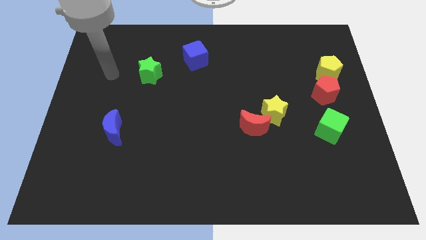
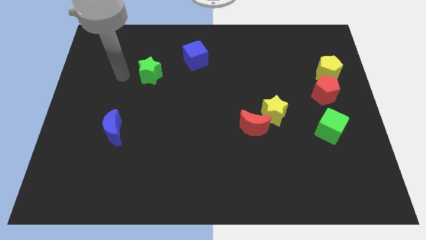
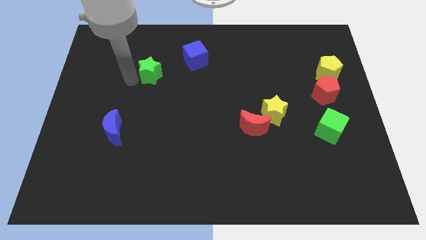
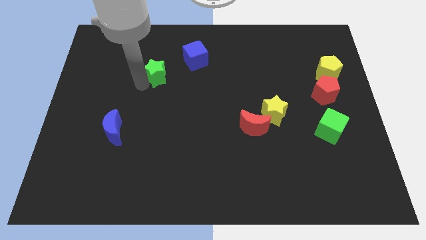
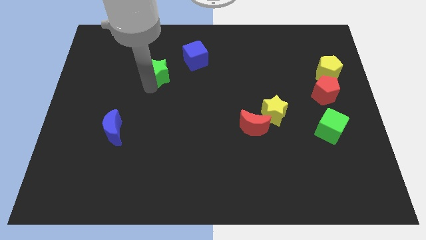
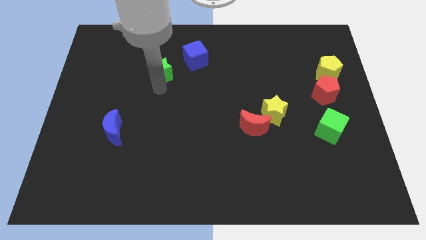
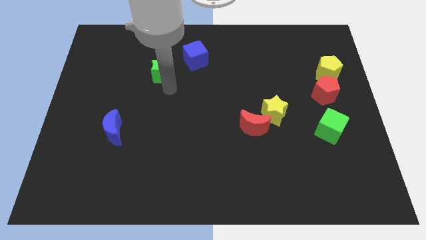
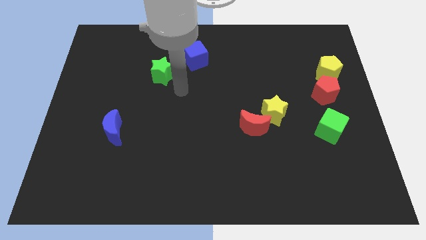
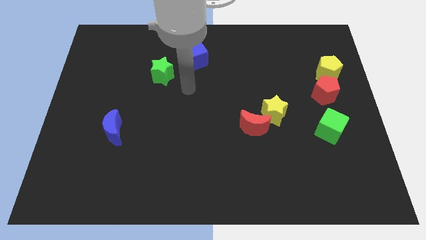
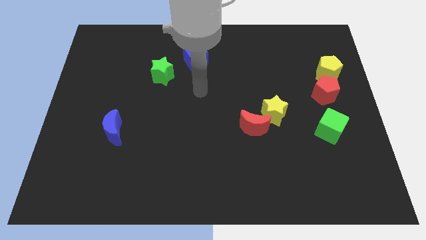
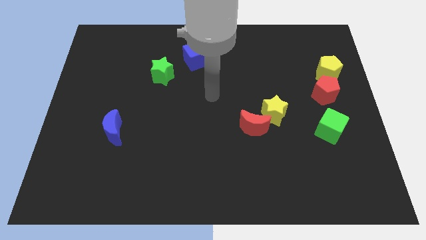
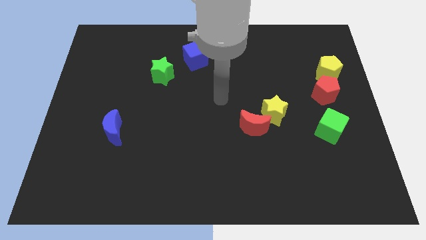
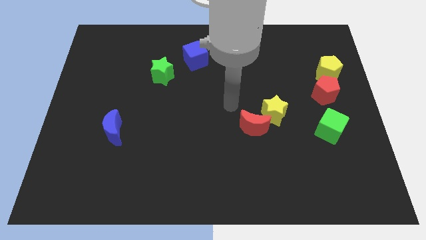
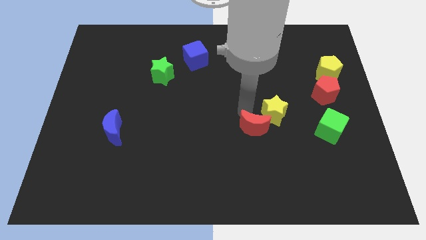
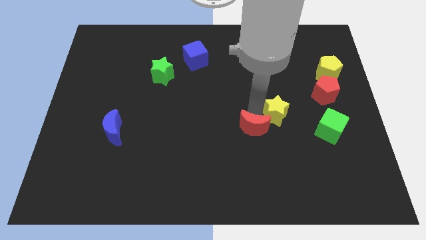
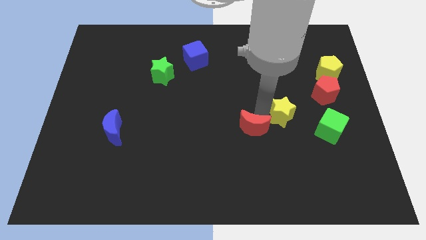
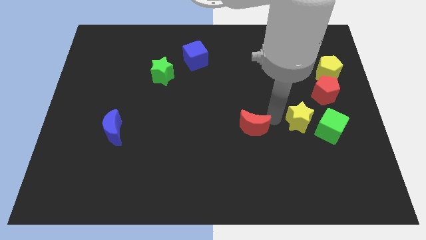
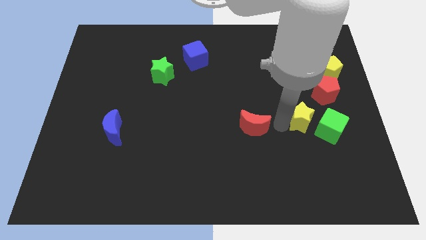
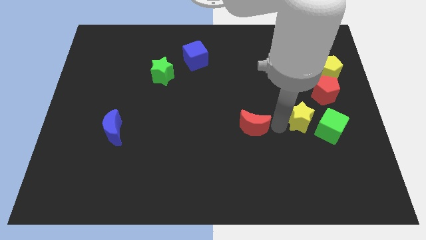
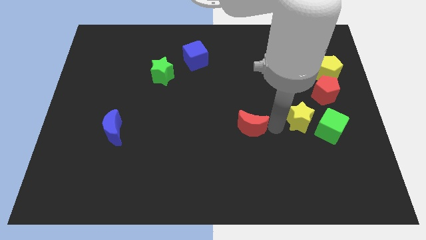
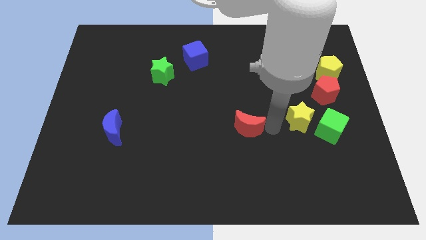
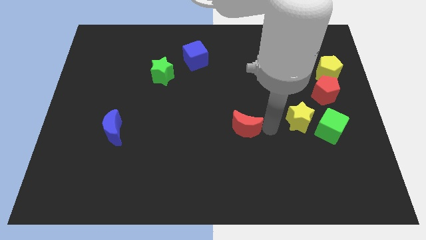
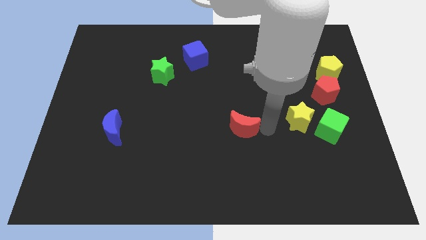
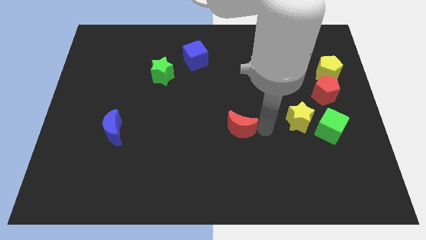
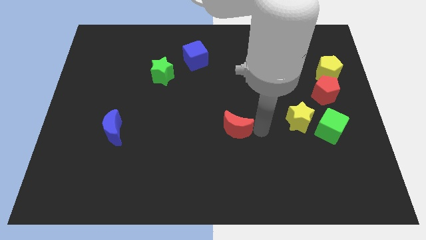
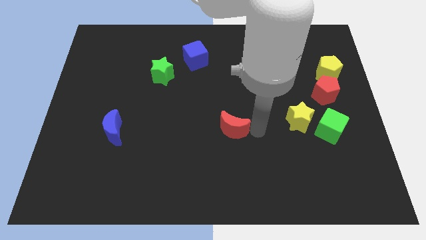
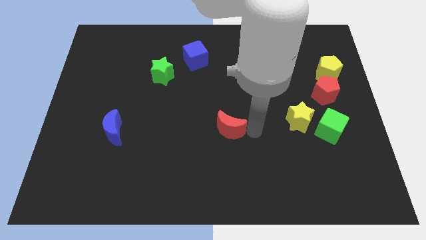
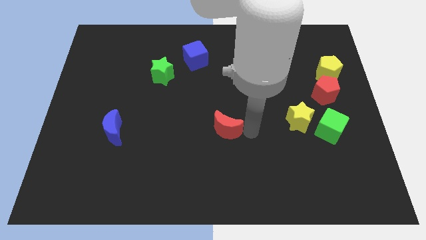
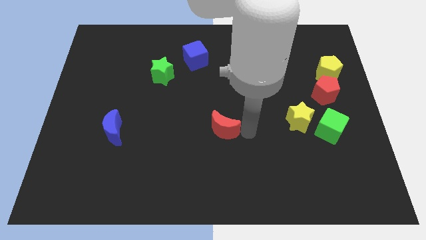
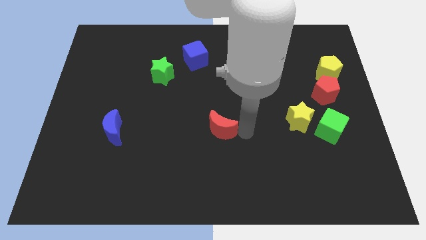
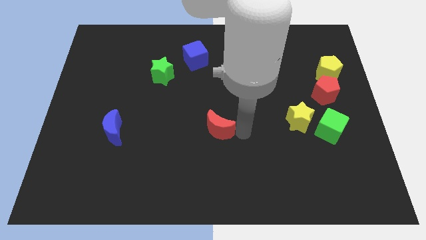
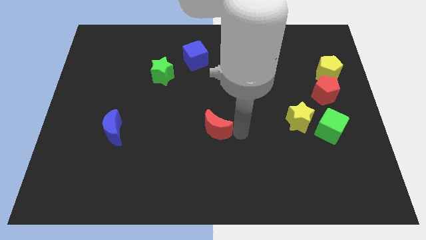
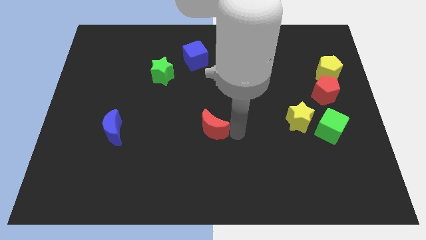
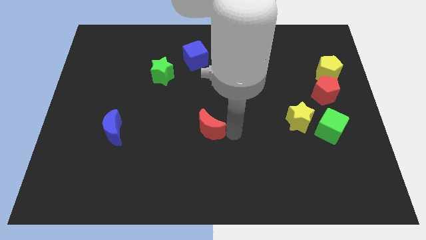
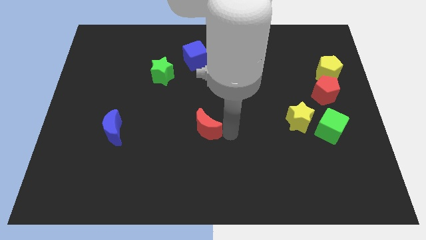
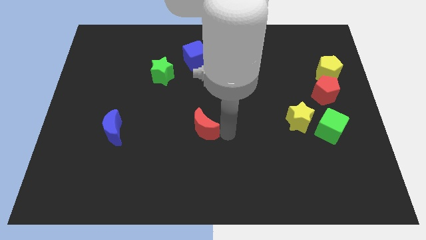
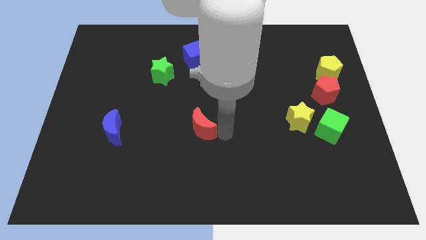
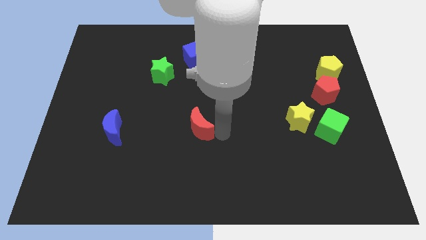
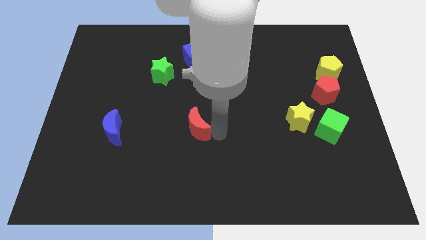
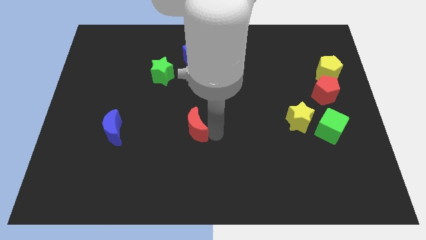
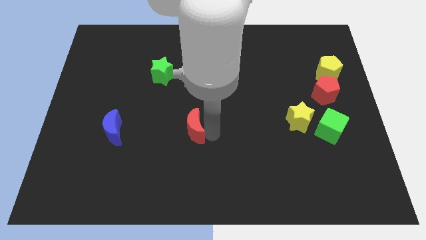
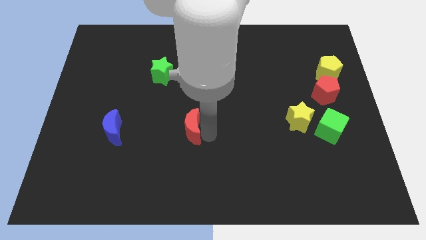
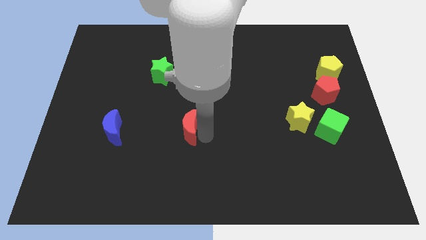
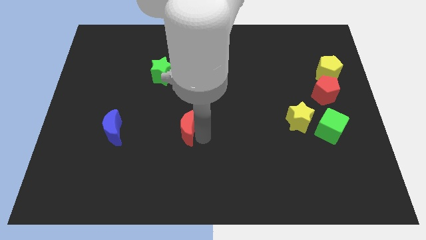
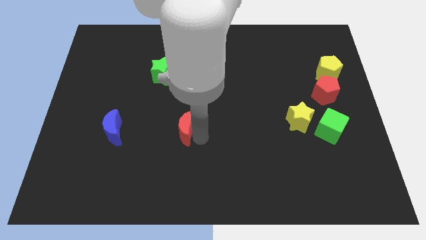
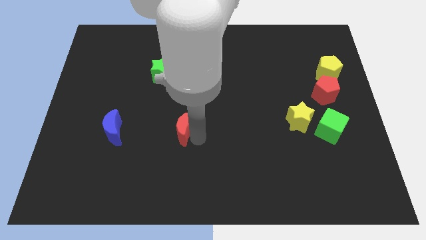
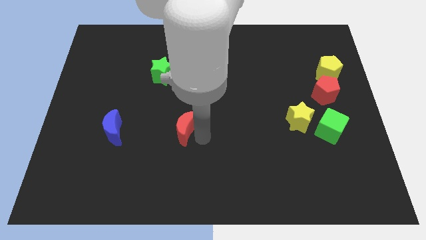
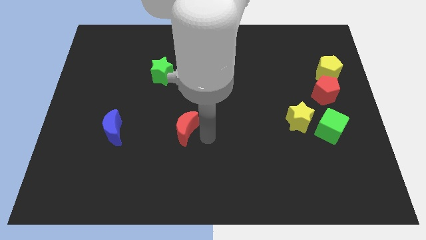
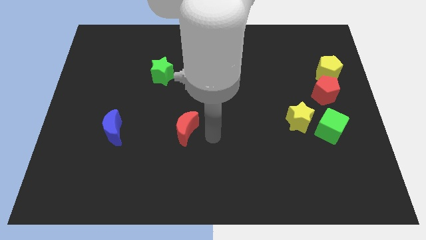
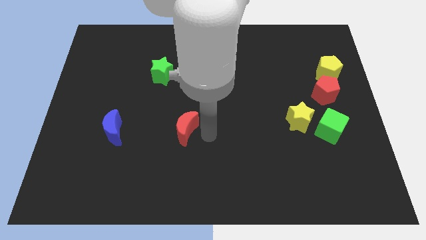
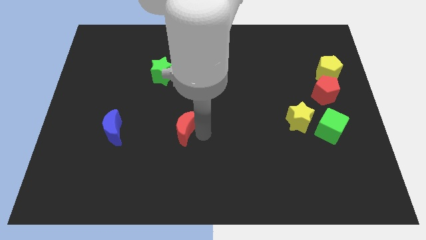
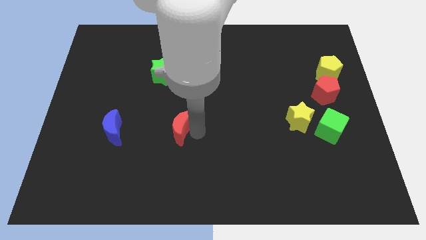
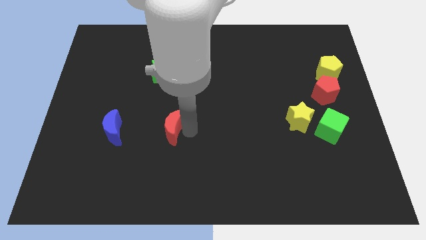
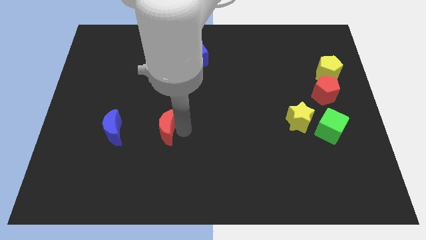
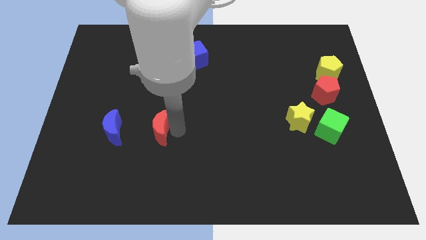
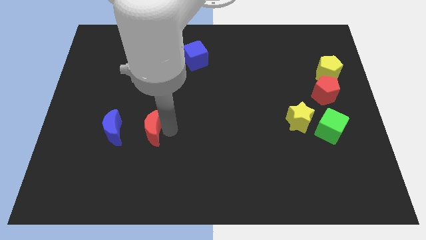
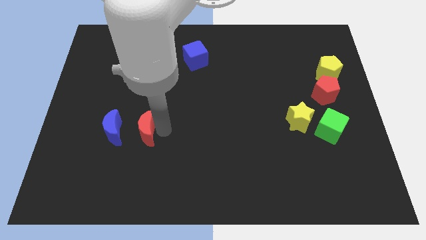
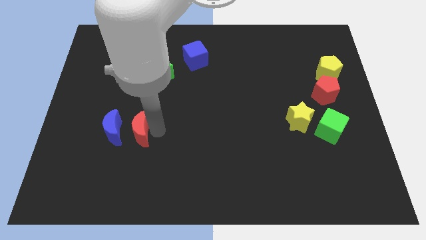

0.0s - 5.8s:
put the red moon to the blue moon

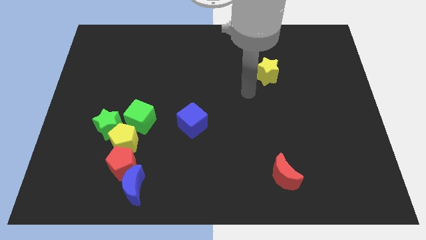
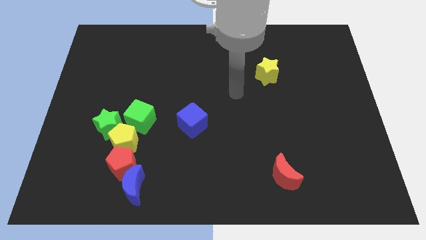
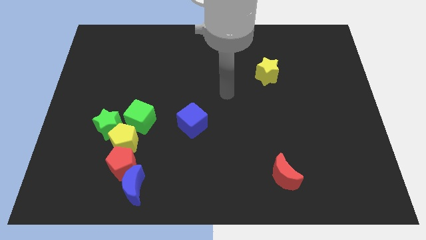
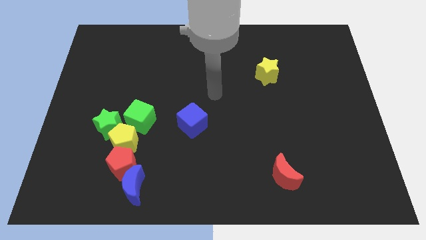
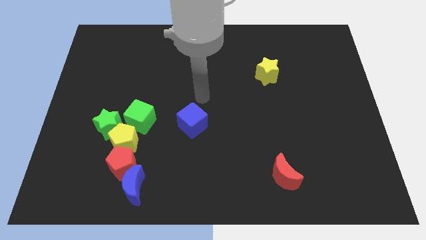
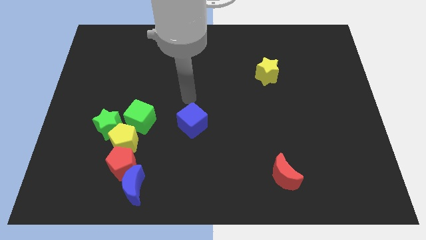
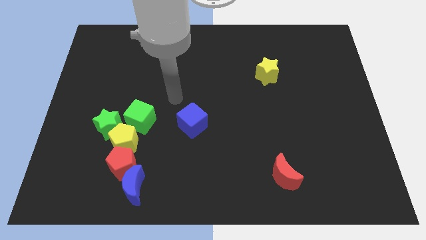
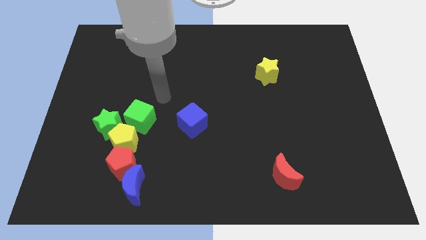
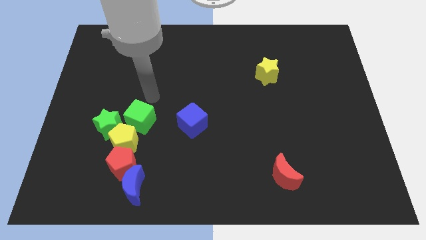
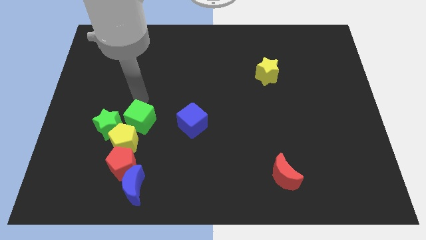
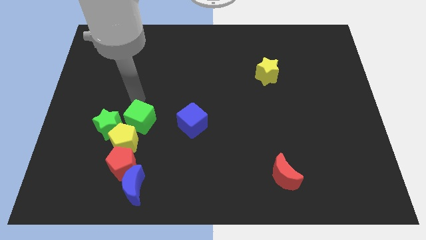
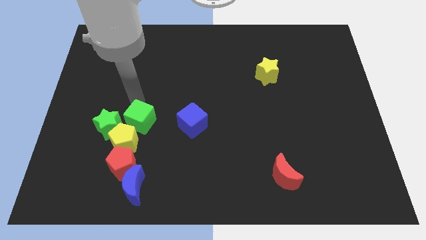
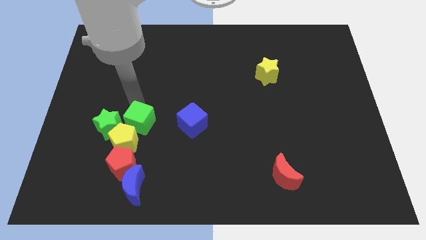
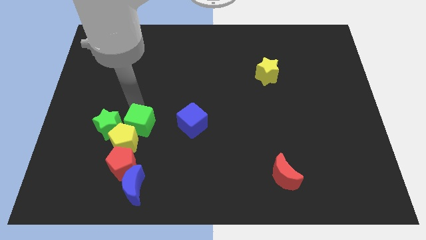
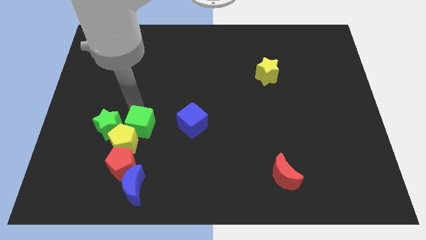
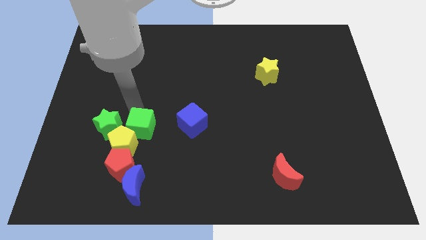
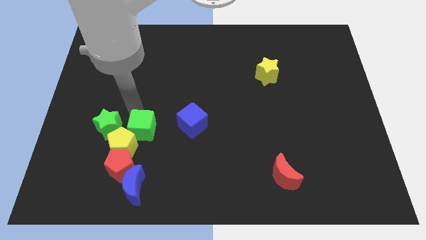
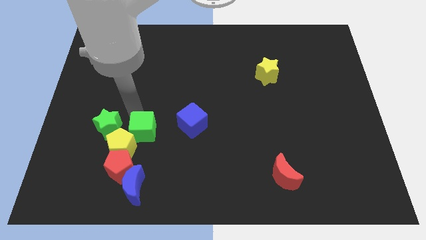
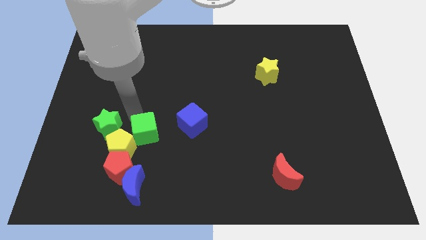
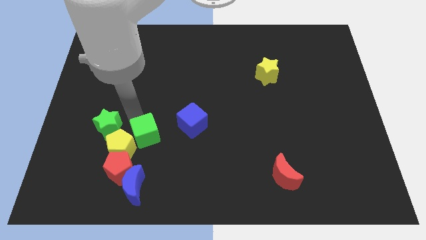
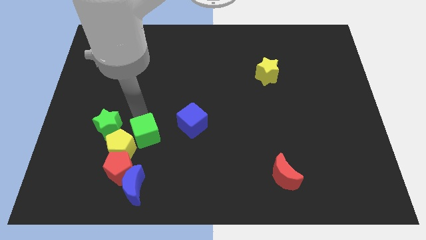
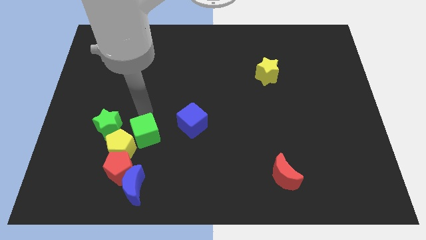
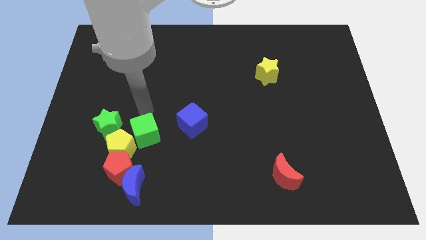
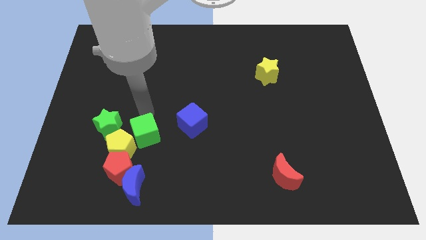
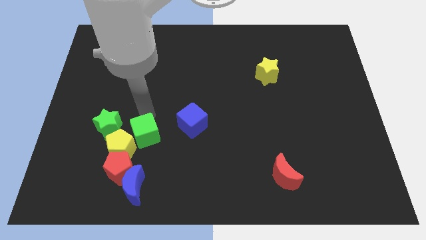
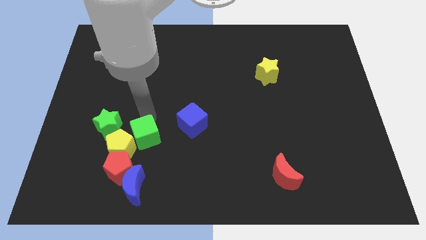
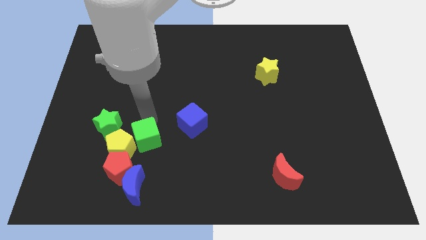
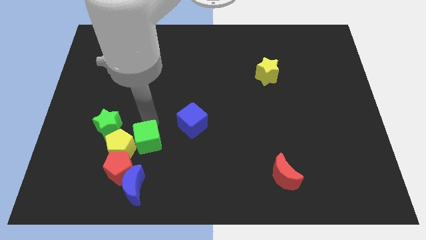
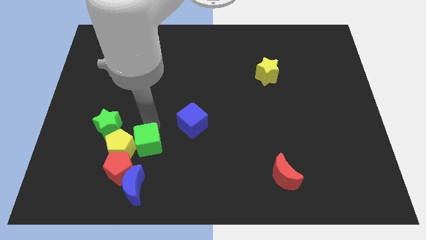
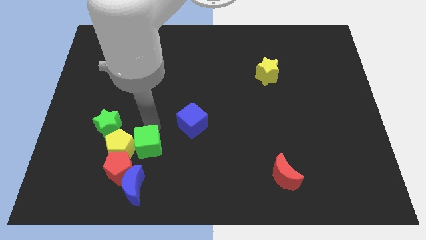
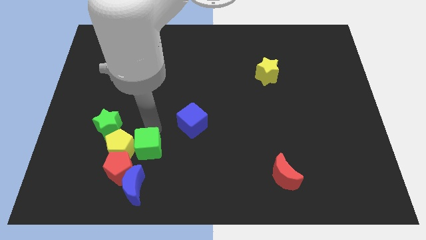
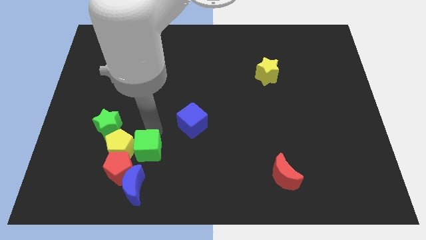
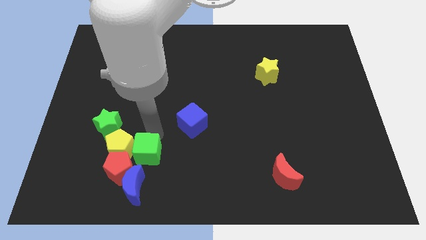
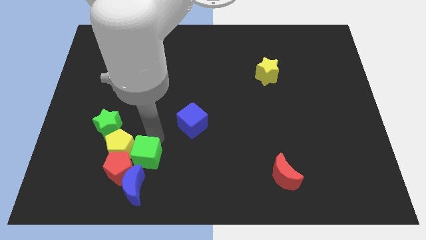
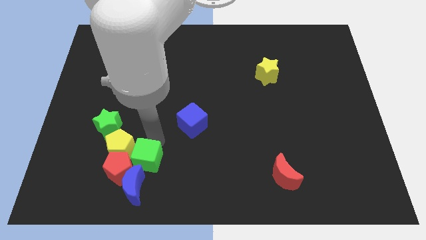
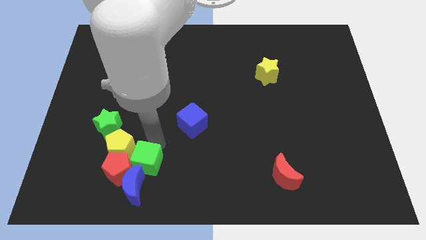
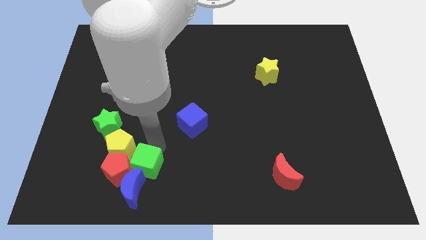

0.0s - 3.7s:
put the green cube towards the blue moon
